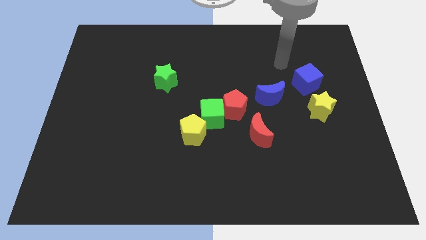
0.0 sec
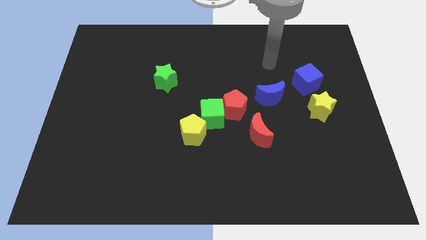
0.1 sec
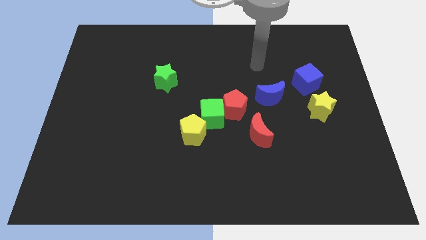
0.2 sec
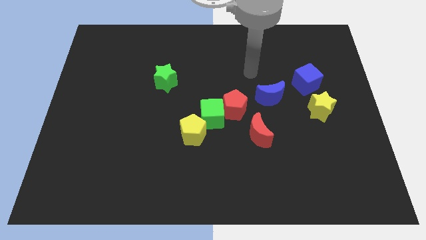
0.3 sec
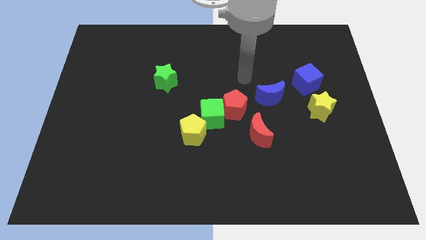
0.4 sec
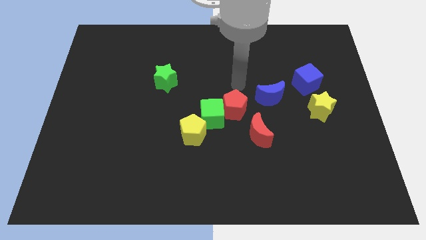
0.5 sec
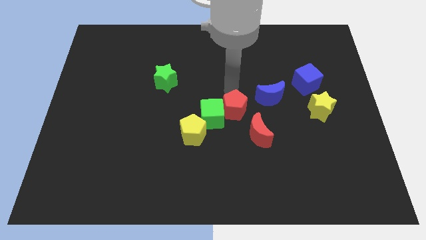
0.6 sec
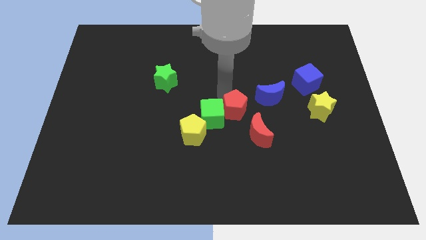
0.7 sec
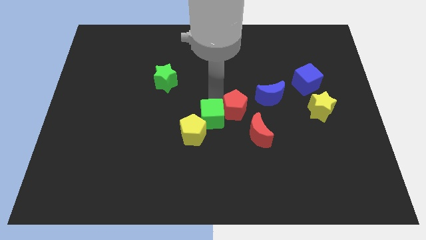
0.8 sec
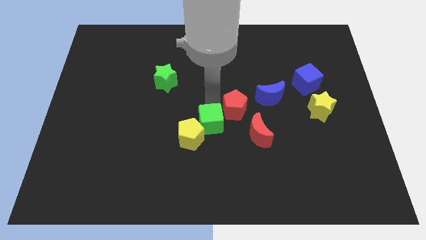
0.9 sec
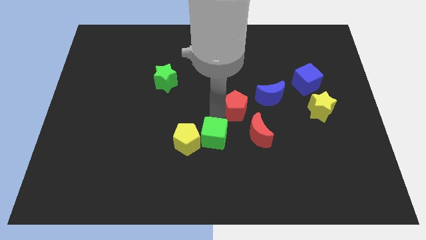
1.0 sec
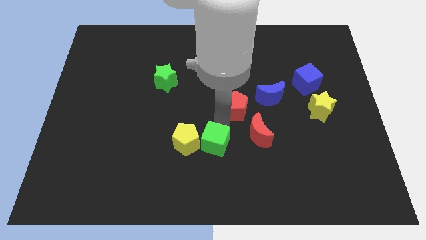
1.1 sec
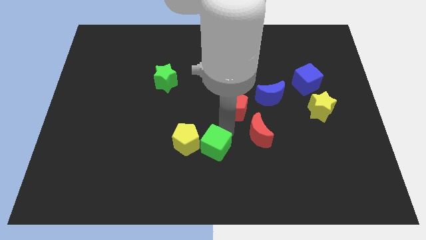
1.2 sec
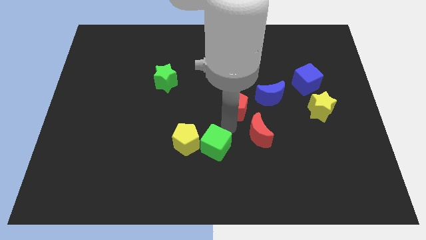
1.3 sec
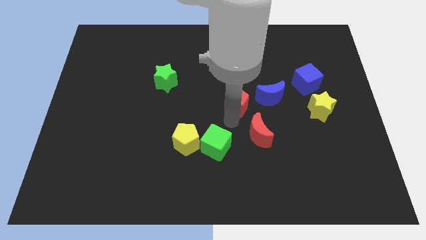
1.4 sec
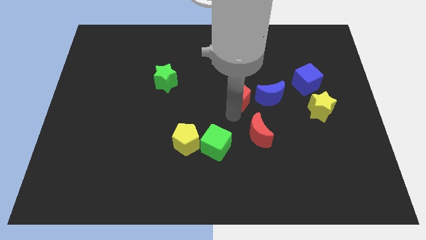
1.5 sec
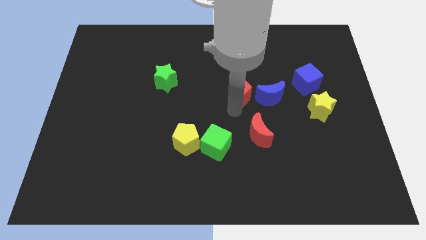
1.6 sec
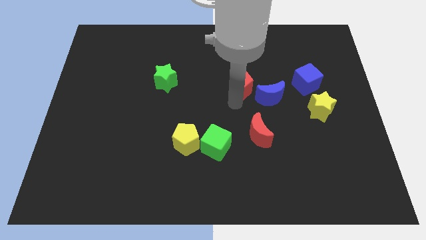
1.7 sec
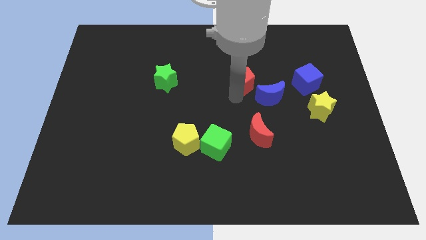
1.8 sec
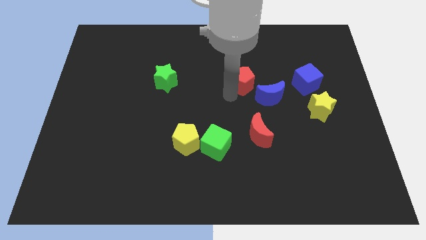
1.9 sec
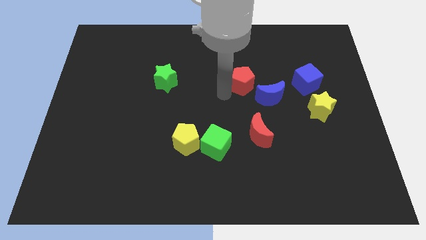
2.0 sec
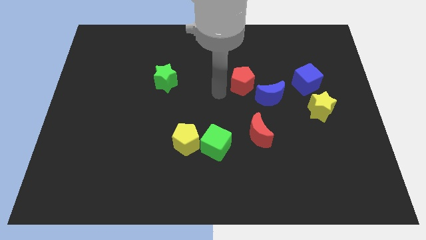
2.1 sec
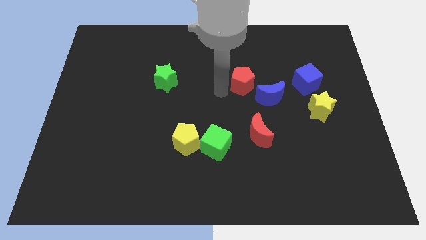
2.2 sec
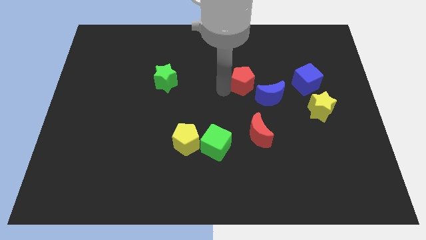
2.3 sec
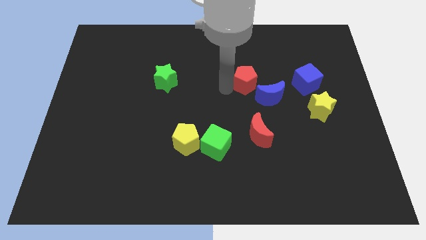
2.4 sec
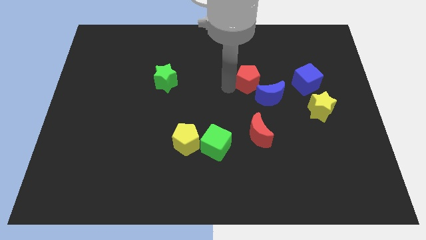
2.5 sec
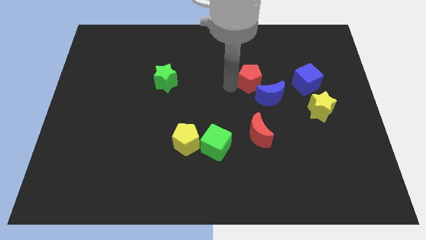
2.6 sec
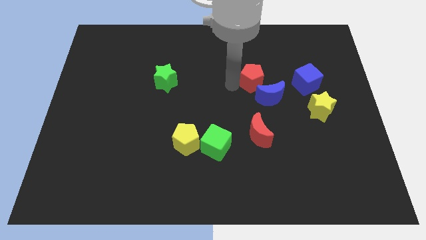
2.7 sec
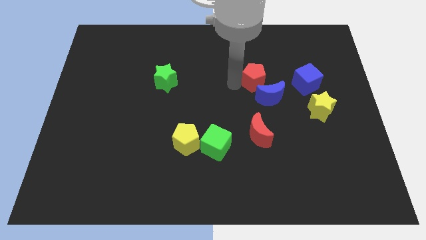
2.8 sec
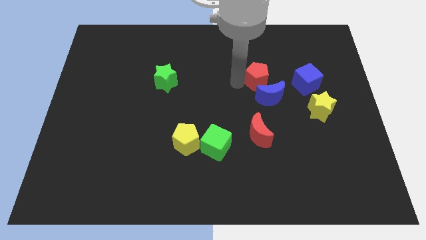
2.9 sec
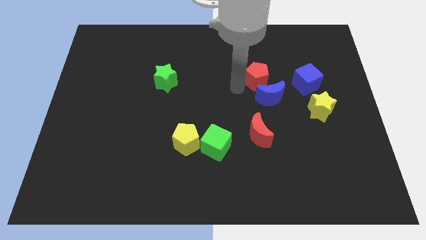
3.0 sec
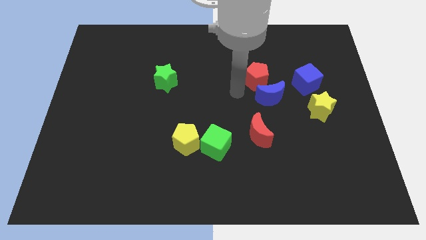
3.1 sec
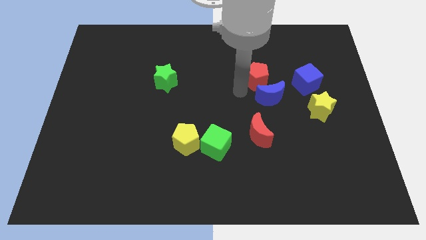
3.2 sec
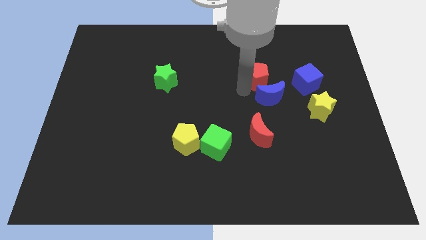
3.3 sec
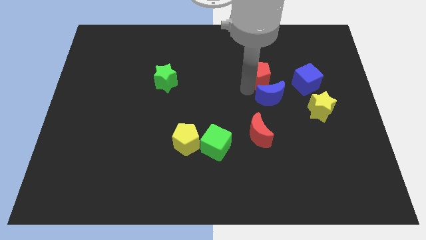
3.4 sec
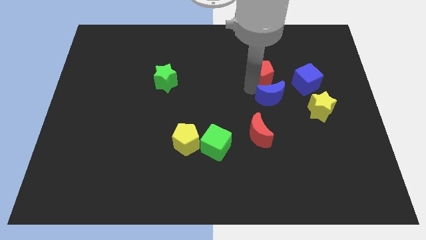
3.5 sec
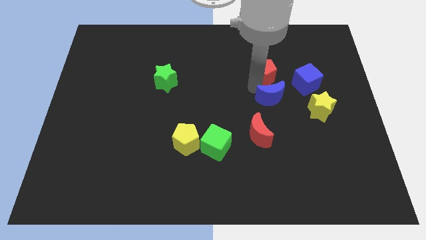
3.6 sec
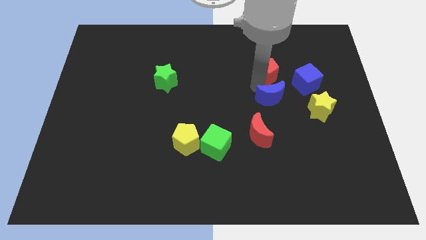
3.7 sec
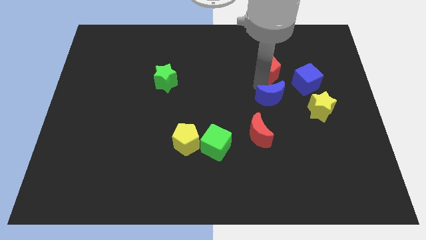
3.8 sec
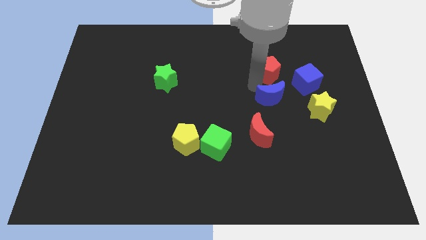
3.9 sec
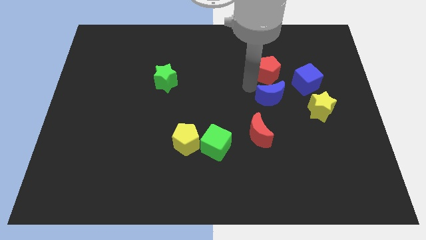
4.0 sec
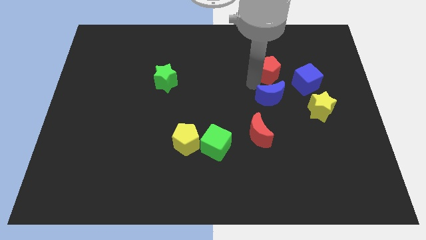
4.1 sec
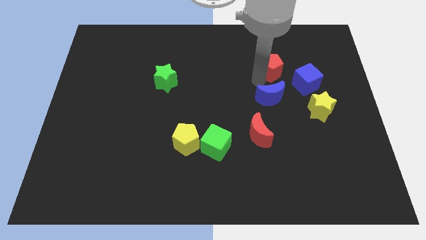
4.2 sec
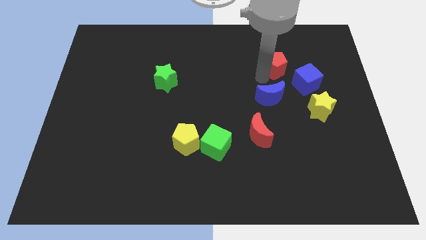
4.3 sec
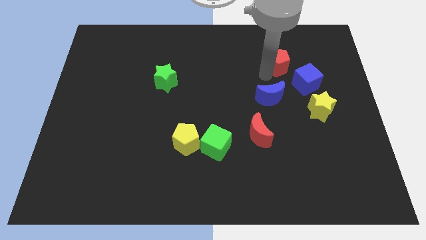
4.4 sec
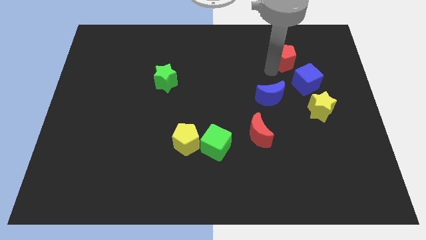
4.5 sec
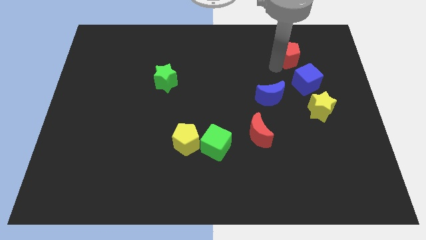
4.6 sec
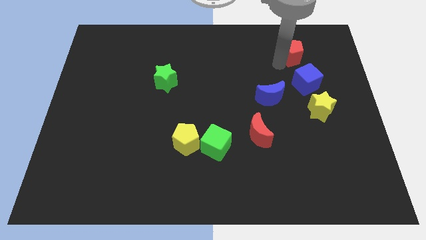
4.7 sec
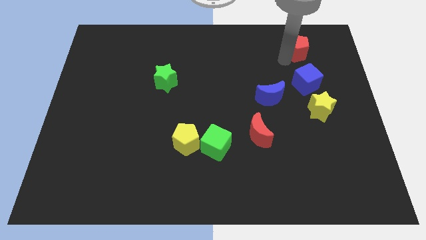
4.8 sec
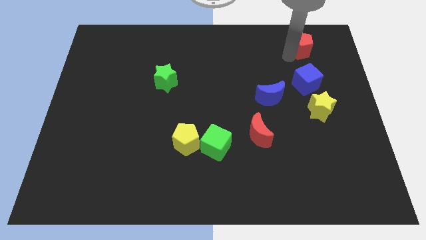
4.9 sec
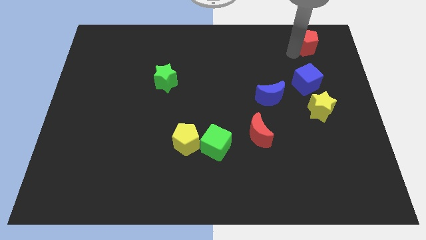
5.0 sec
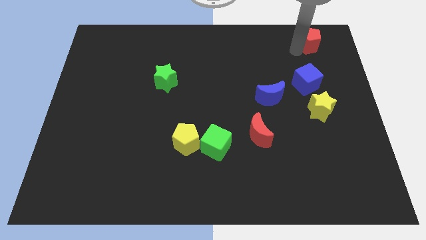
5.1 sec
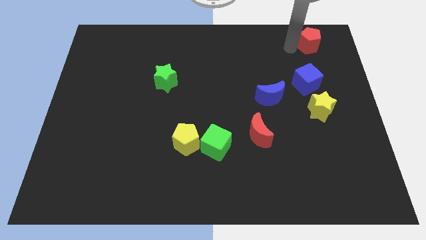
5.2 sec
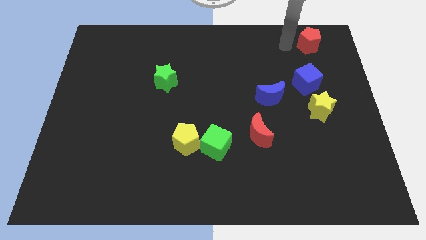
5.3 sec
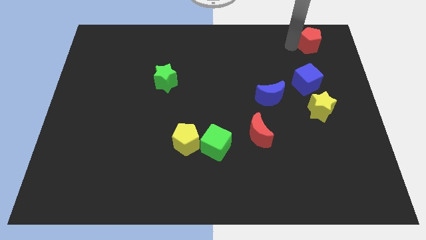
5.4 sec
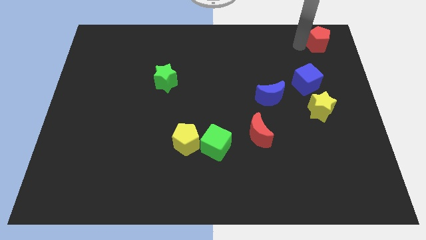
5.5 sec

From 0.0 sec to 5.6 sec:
put the red pentagon to the top right corner

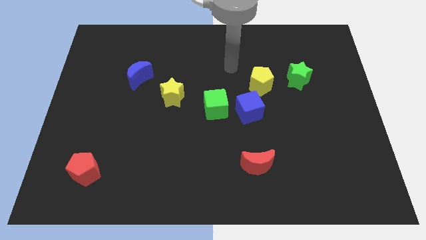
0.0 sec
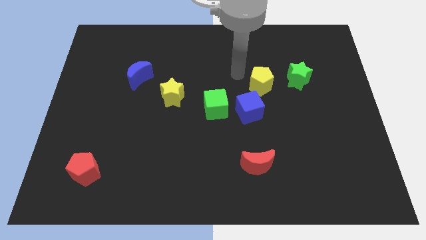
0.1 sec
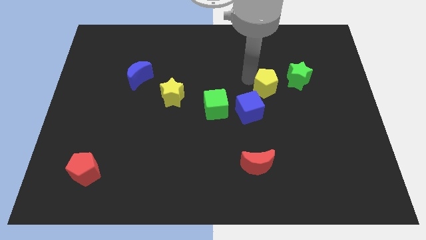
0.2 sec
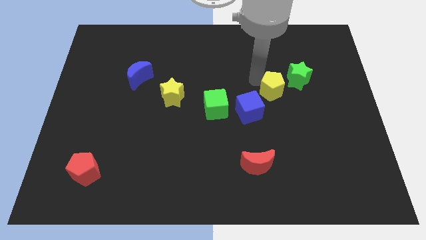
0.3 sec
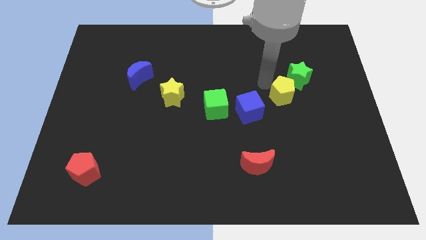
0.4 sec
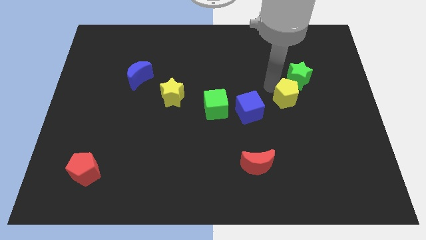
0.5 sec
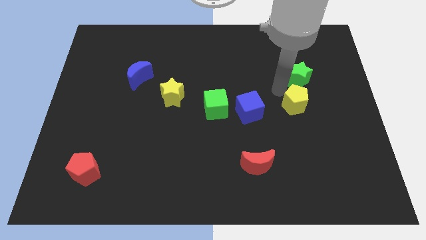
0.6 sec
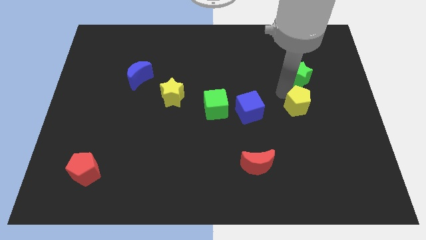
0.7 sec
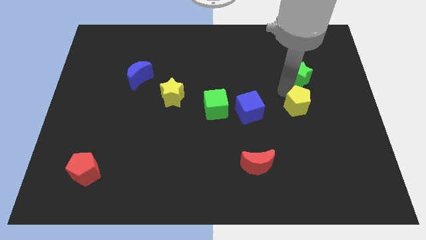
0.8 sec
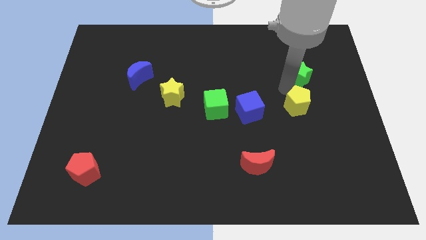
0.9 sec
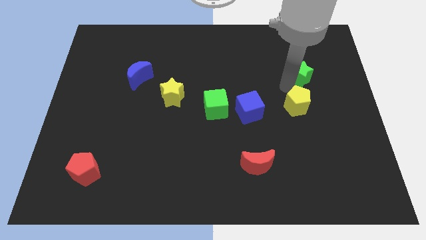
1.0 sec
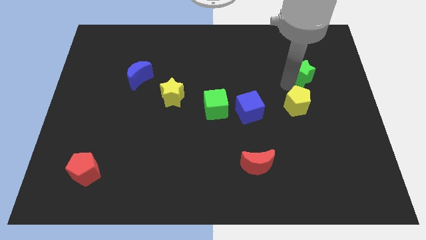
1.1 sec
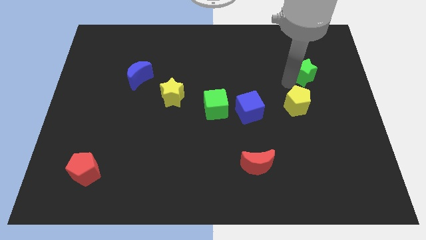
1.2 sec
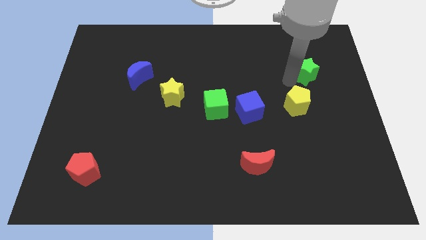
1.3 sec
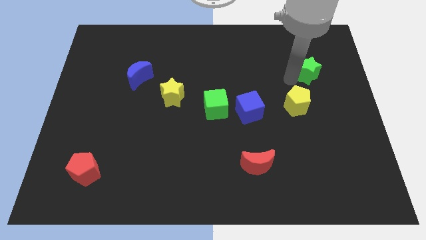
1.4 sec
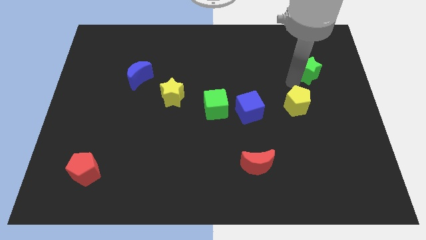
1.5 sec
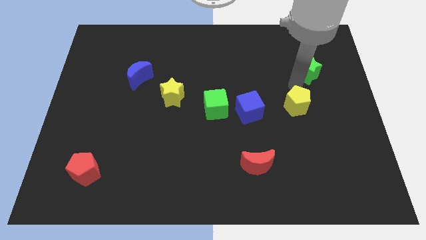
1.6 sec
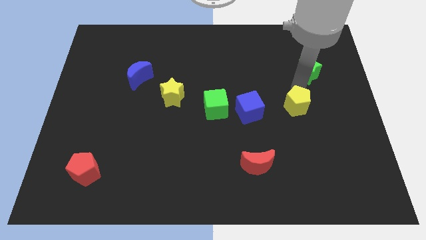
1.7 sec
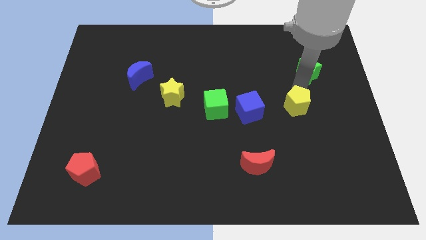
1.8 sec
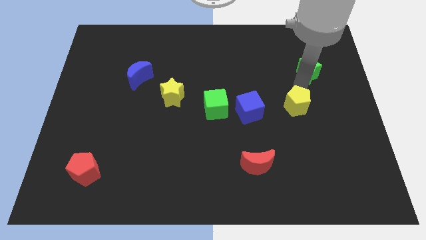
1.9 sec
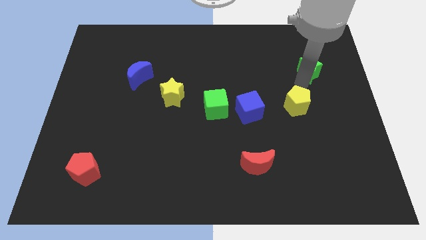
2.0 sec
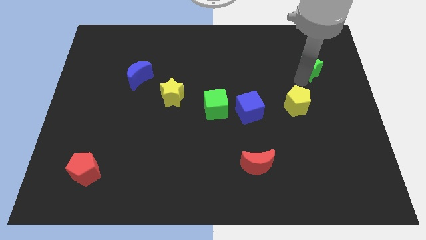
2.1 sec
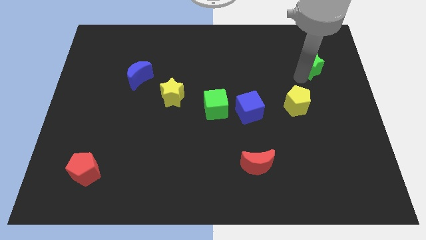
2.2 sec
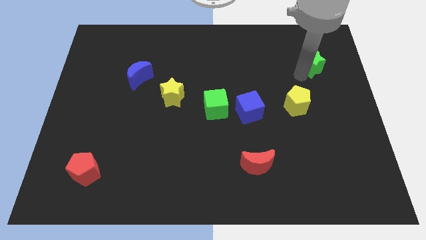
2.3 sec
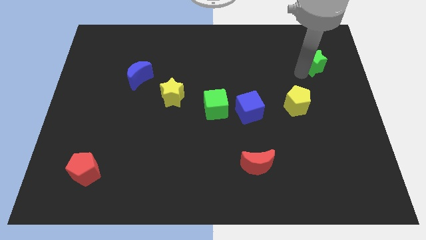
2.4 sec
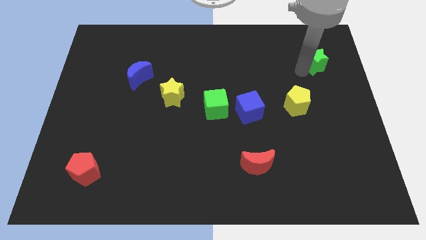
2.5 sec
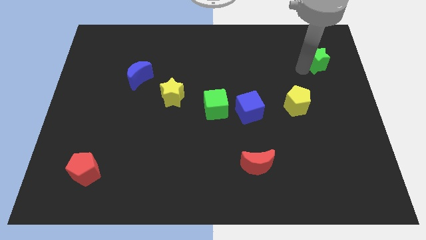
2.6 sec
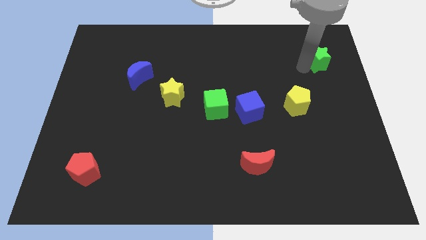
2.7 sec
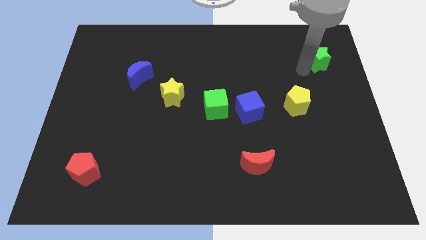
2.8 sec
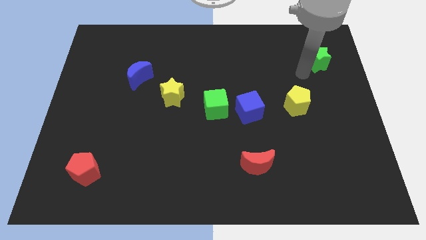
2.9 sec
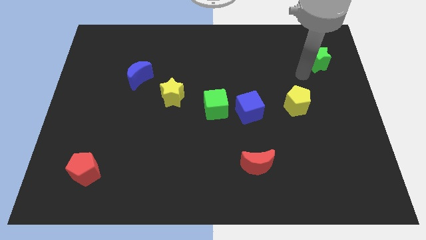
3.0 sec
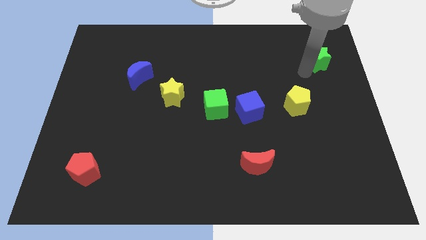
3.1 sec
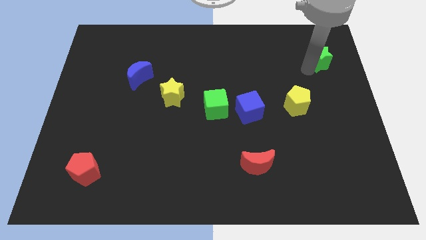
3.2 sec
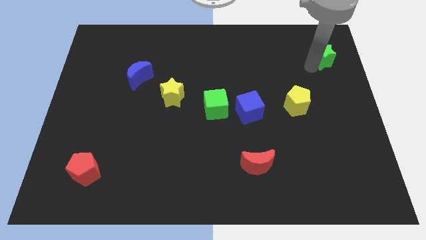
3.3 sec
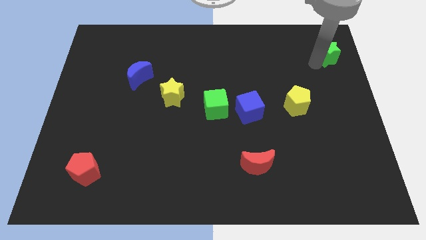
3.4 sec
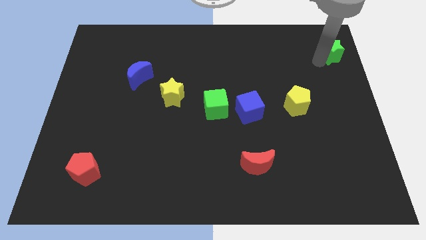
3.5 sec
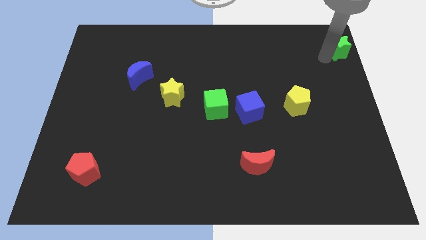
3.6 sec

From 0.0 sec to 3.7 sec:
slide the green star to the upper right corner
